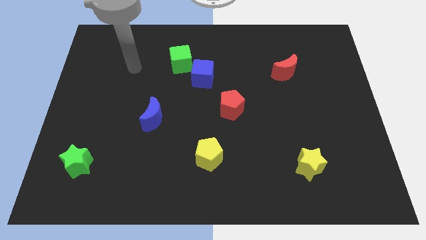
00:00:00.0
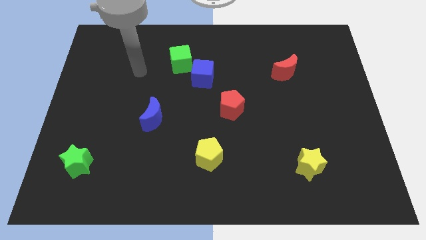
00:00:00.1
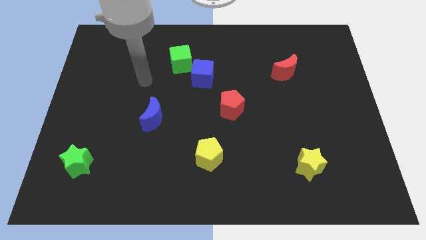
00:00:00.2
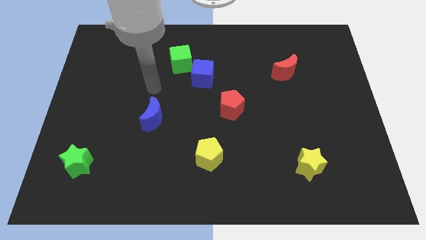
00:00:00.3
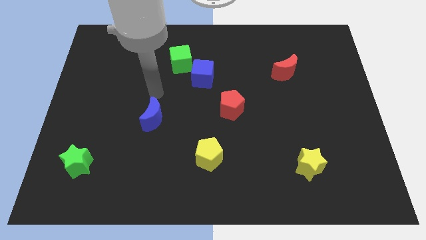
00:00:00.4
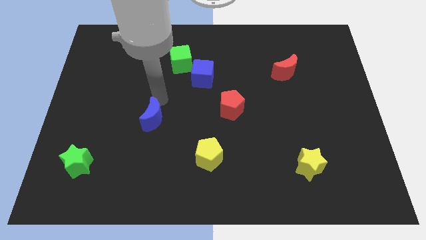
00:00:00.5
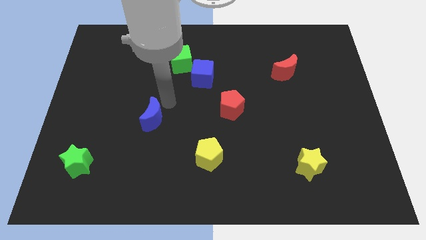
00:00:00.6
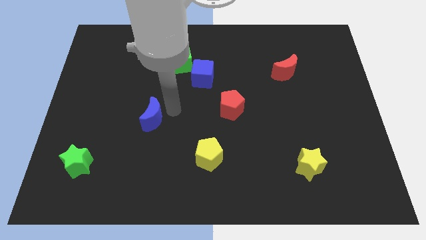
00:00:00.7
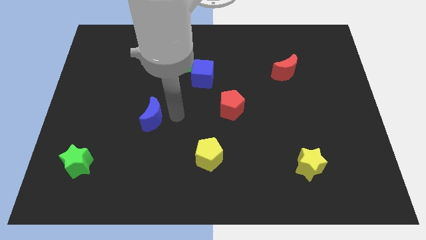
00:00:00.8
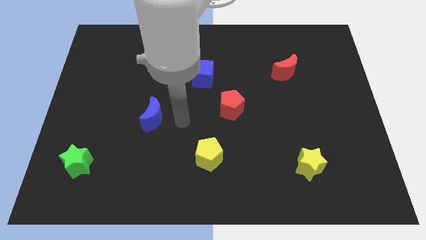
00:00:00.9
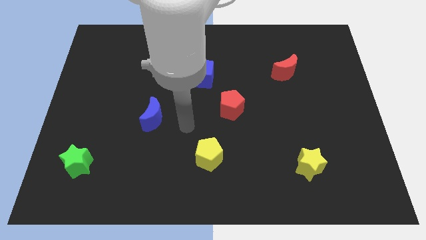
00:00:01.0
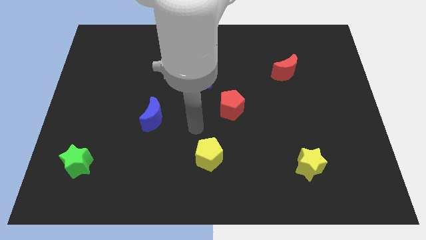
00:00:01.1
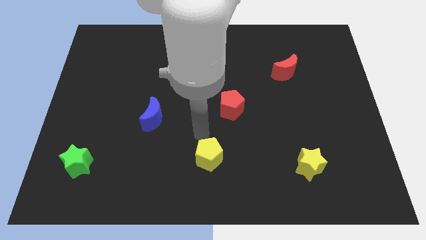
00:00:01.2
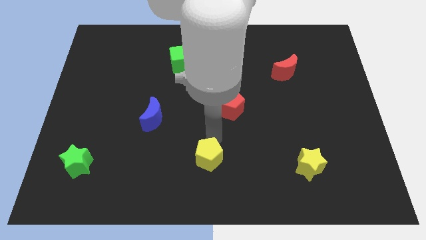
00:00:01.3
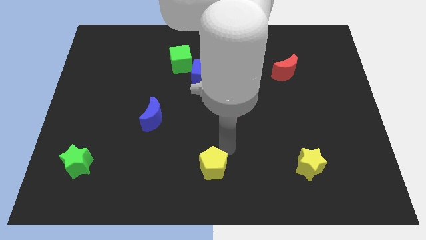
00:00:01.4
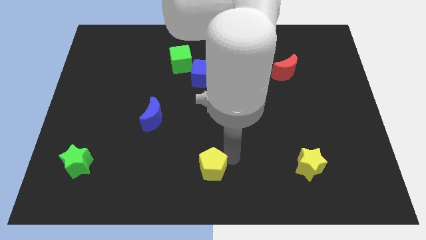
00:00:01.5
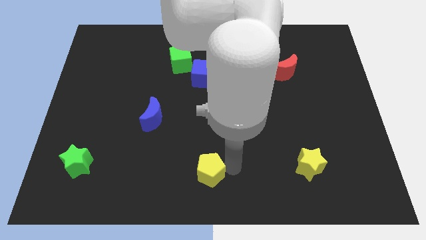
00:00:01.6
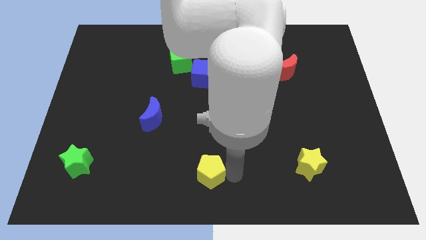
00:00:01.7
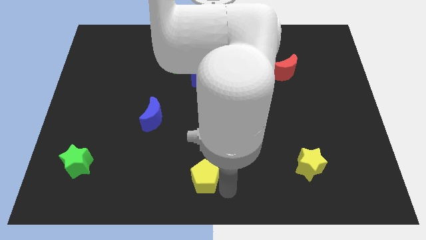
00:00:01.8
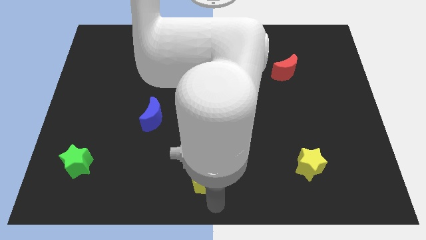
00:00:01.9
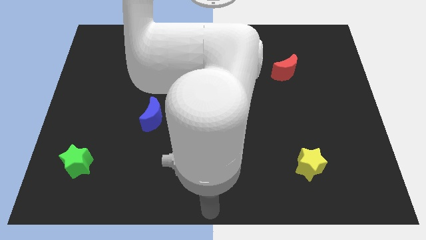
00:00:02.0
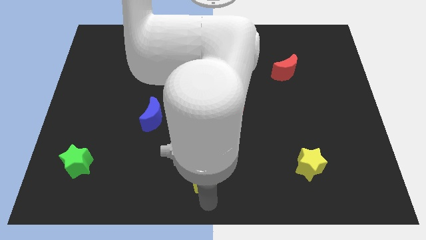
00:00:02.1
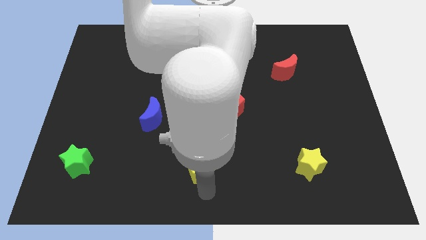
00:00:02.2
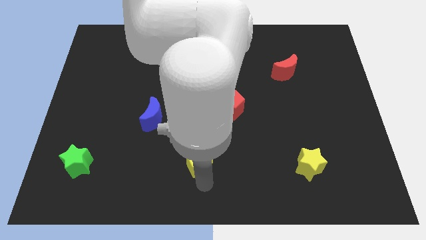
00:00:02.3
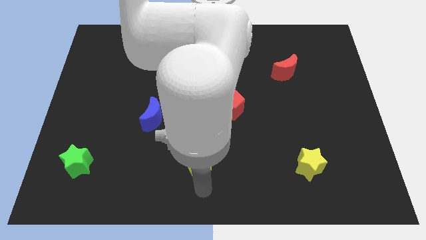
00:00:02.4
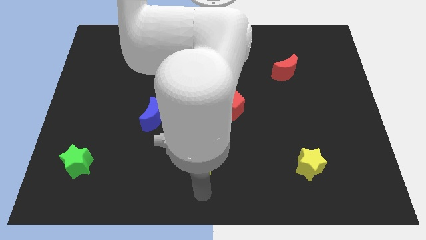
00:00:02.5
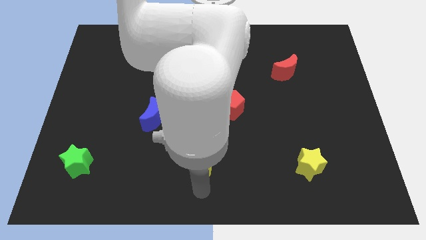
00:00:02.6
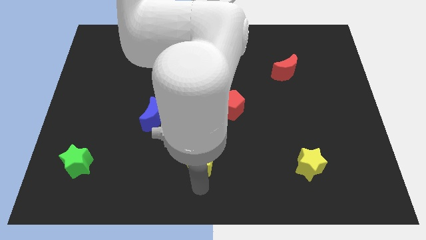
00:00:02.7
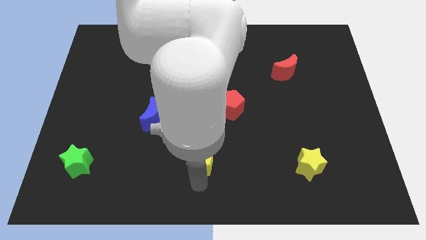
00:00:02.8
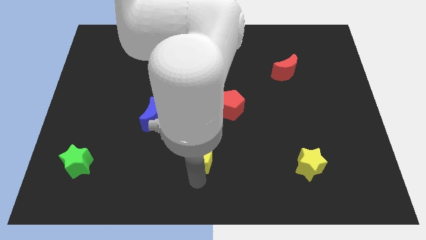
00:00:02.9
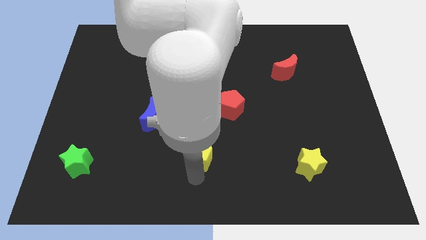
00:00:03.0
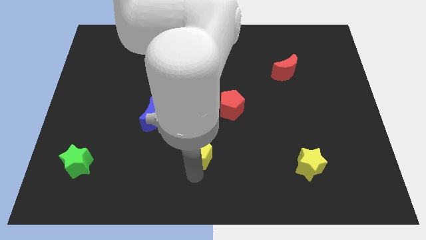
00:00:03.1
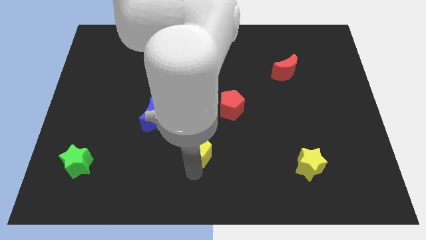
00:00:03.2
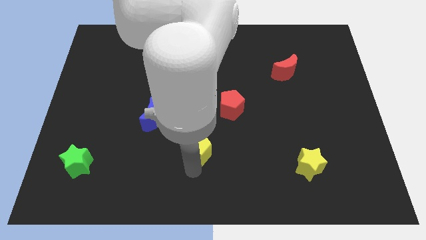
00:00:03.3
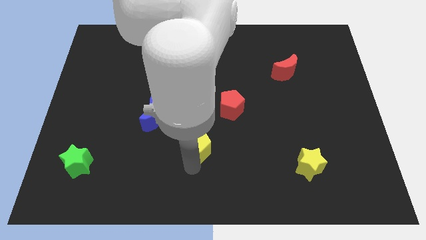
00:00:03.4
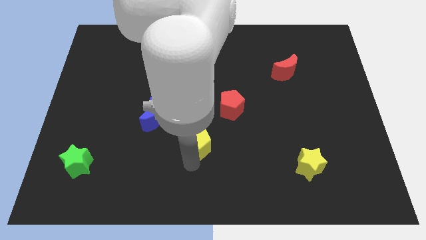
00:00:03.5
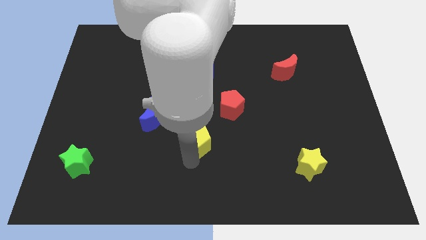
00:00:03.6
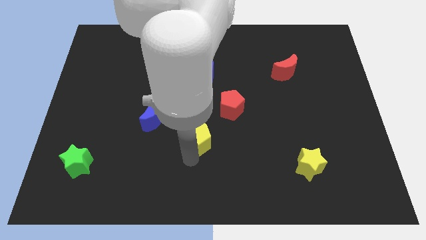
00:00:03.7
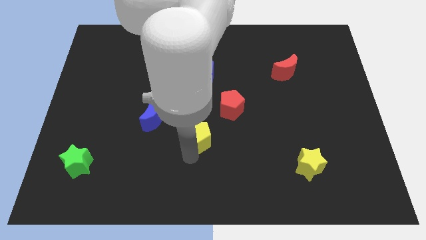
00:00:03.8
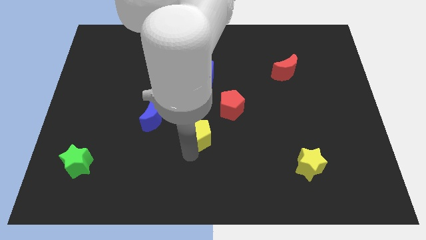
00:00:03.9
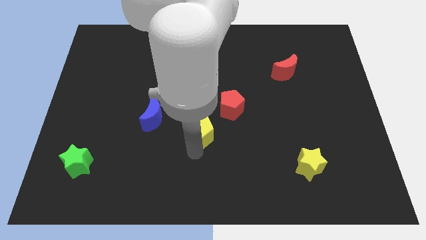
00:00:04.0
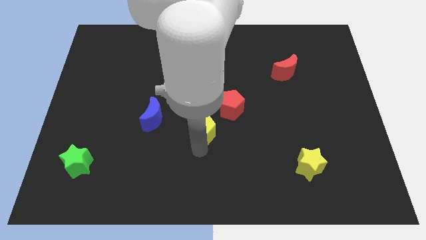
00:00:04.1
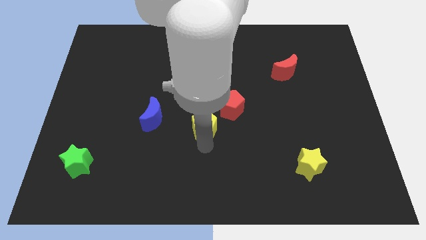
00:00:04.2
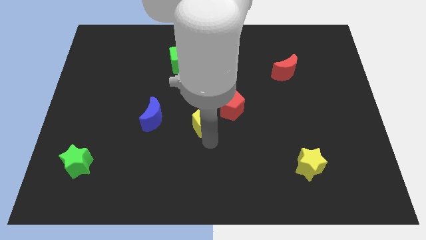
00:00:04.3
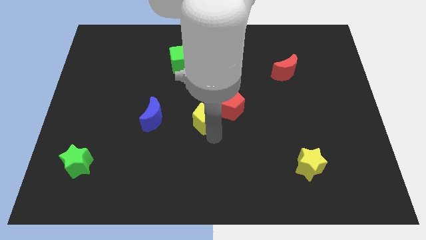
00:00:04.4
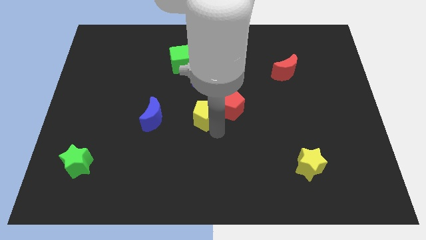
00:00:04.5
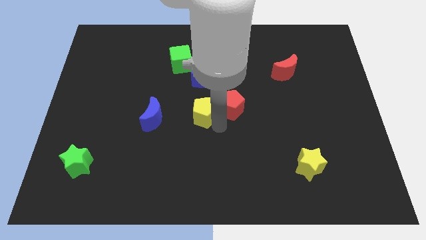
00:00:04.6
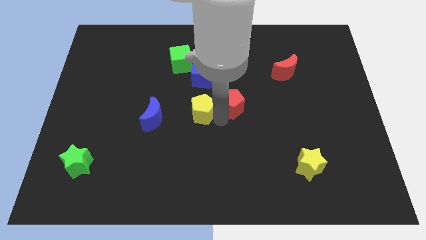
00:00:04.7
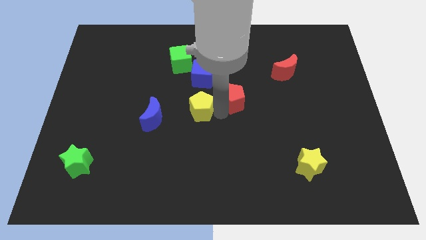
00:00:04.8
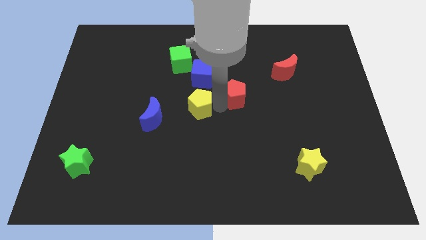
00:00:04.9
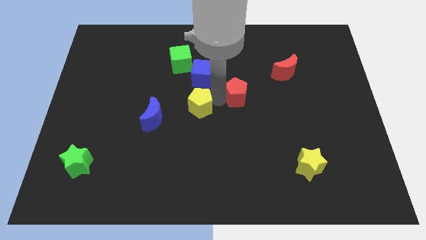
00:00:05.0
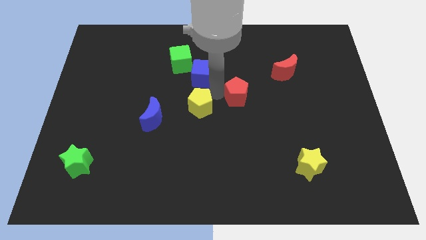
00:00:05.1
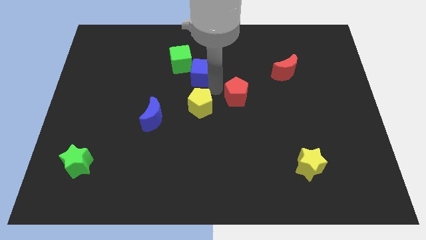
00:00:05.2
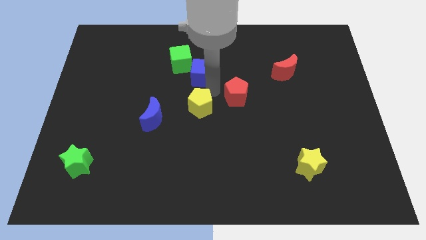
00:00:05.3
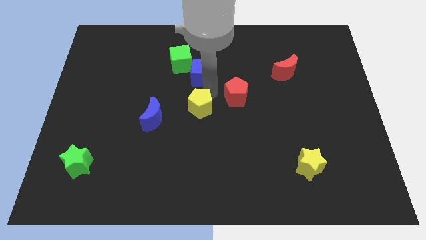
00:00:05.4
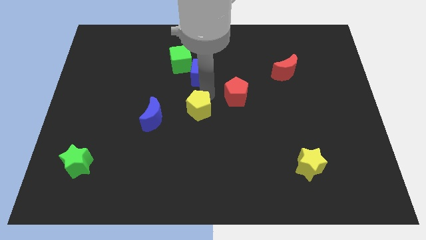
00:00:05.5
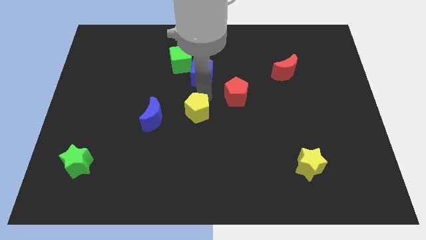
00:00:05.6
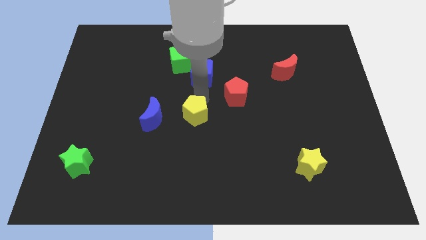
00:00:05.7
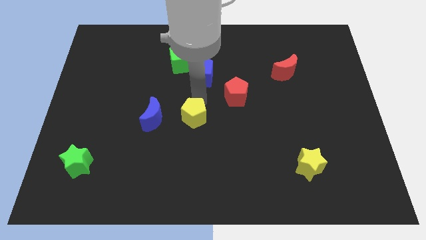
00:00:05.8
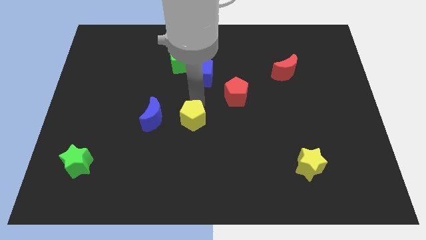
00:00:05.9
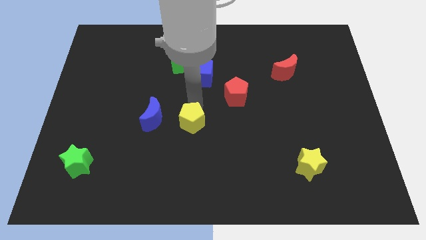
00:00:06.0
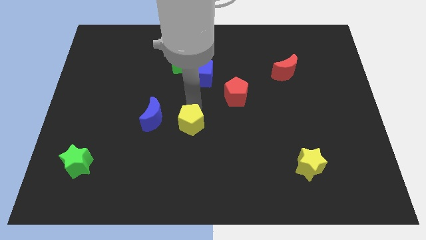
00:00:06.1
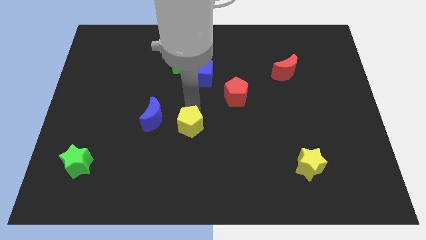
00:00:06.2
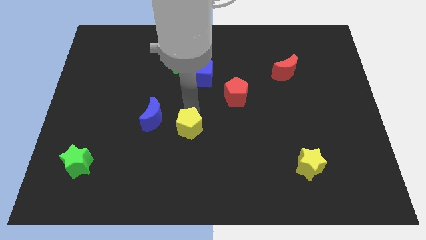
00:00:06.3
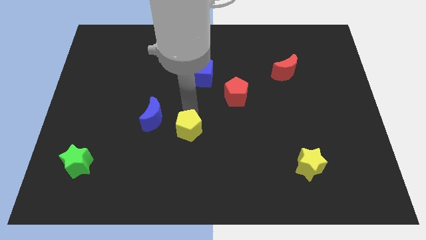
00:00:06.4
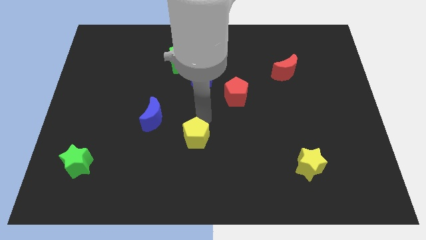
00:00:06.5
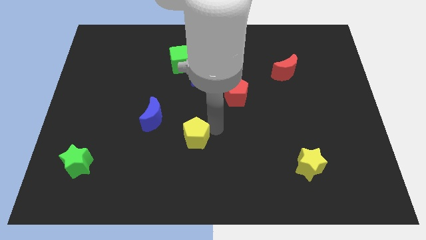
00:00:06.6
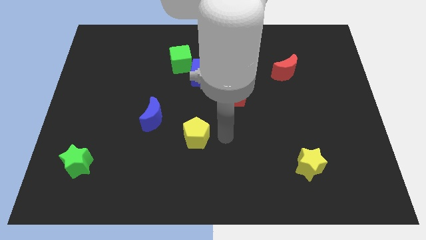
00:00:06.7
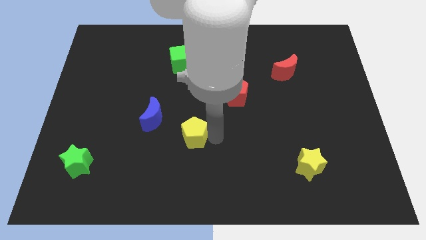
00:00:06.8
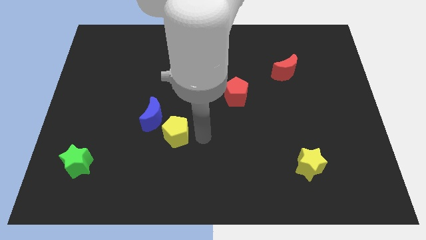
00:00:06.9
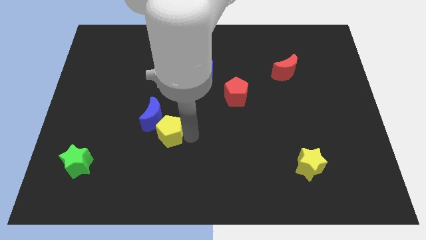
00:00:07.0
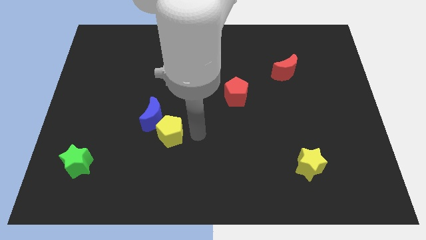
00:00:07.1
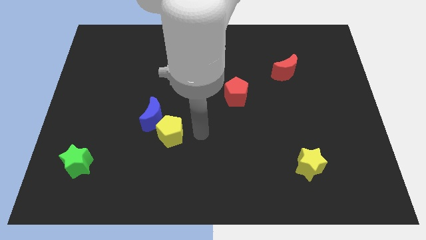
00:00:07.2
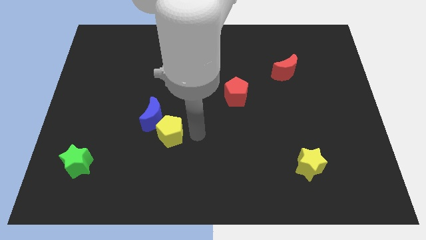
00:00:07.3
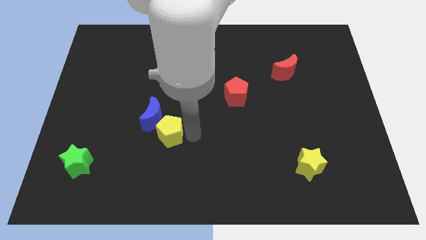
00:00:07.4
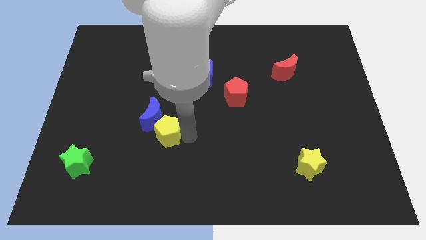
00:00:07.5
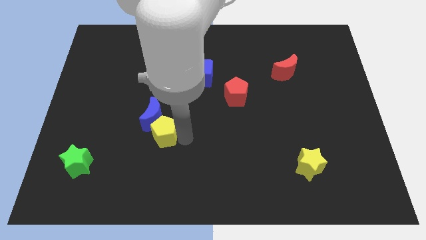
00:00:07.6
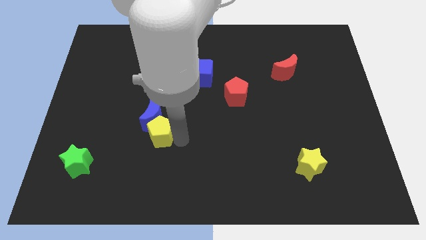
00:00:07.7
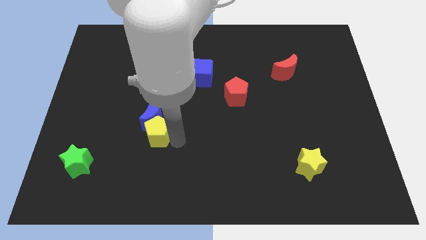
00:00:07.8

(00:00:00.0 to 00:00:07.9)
push the yellow pentagon to the bottom left of the blue moon
